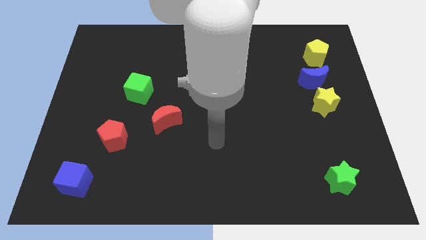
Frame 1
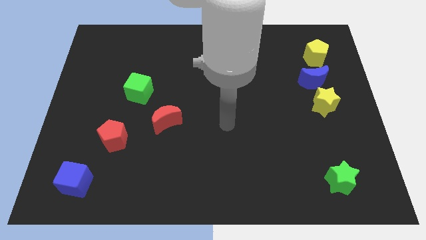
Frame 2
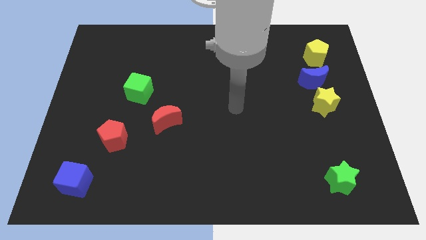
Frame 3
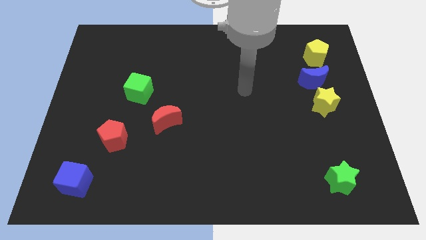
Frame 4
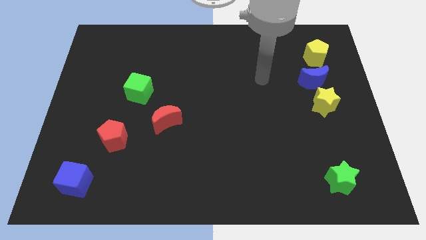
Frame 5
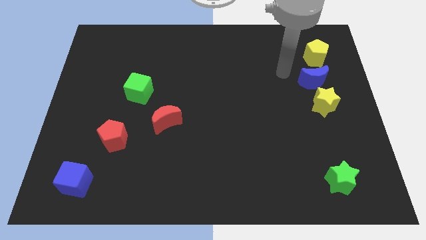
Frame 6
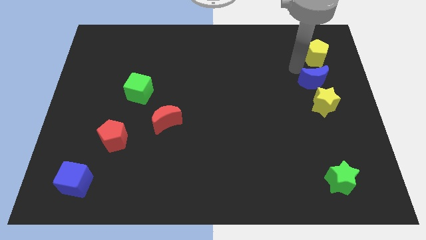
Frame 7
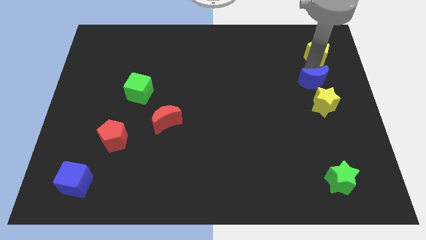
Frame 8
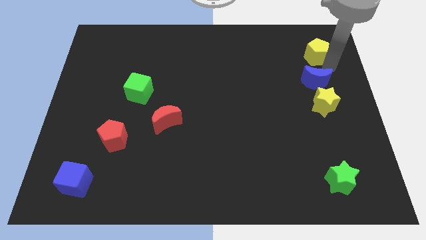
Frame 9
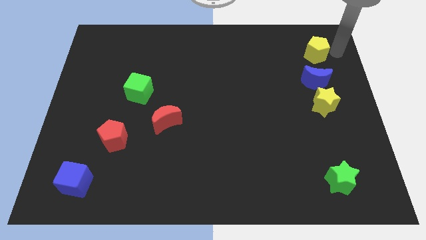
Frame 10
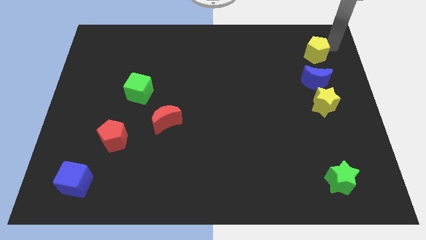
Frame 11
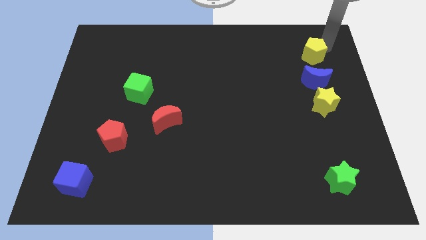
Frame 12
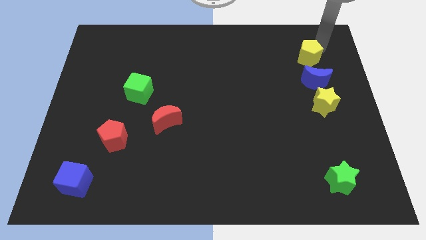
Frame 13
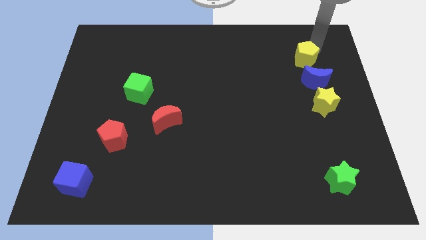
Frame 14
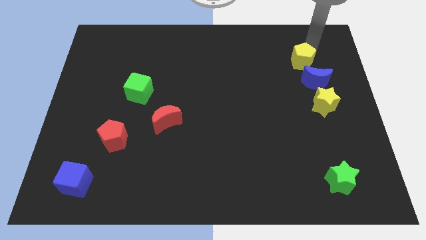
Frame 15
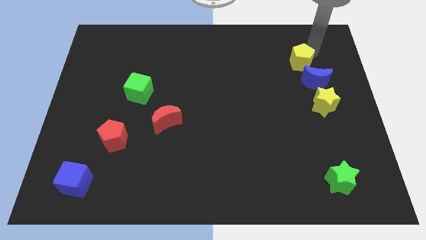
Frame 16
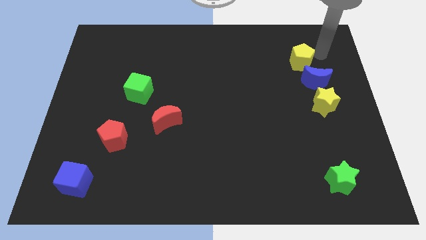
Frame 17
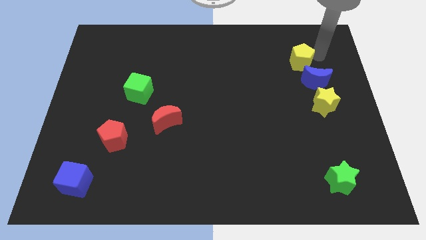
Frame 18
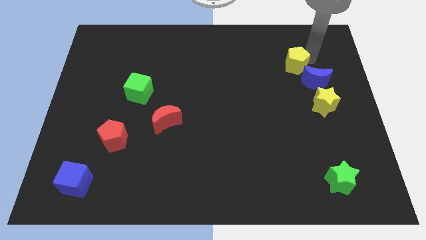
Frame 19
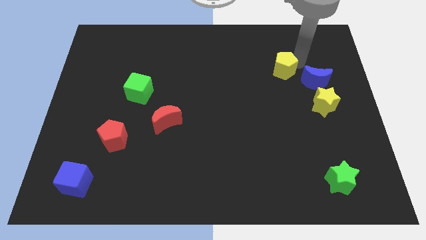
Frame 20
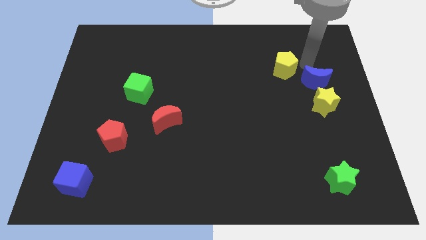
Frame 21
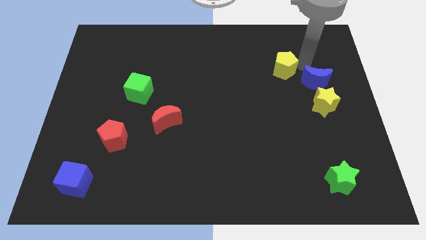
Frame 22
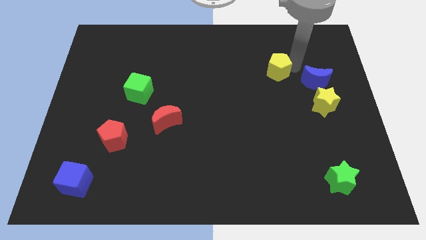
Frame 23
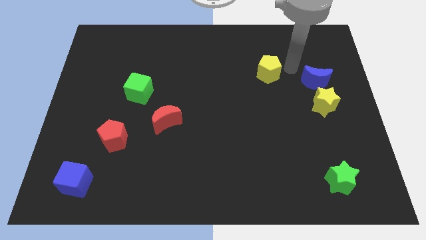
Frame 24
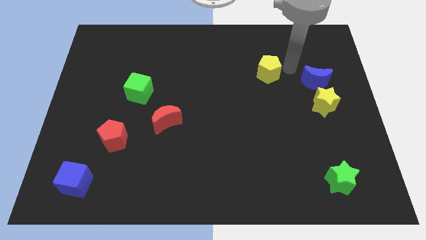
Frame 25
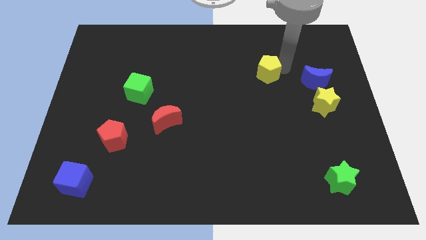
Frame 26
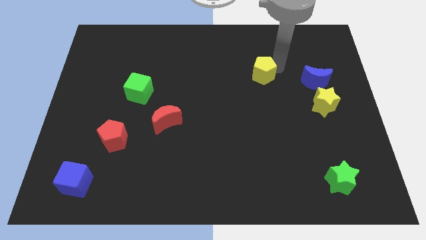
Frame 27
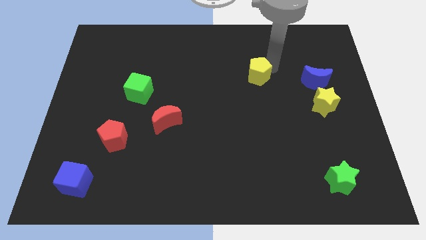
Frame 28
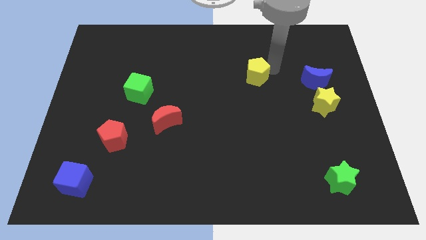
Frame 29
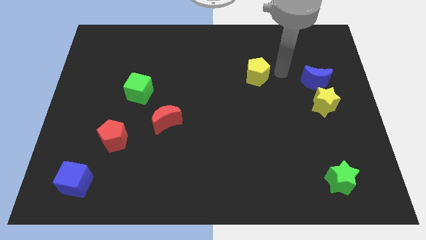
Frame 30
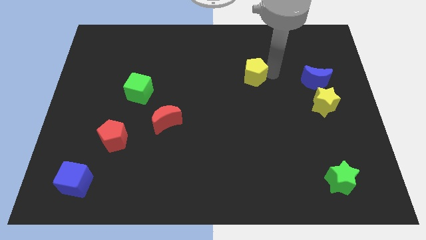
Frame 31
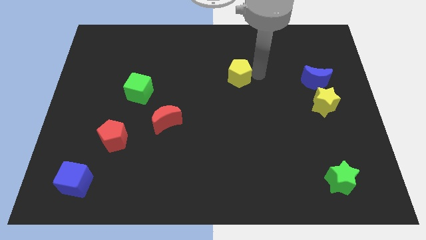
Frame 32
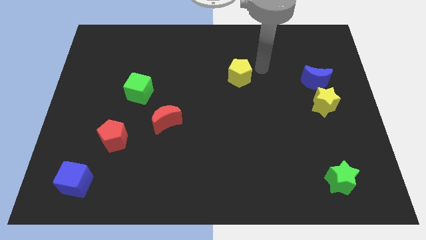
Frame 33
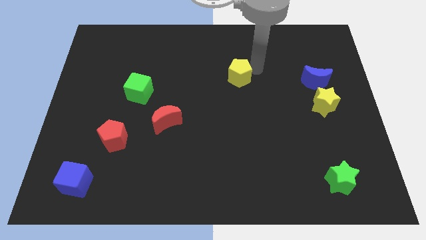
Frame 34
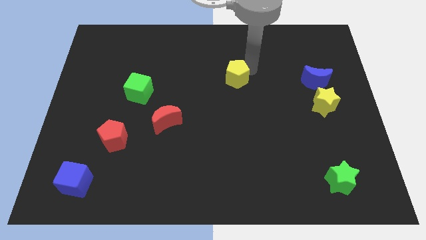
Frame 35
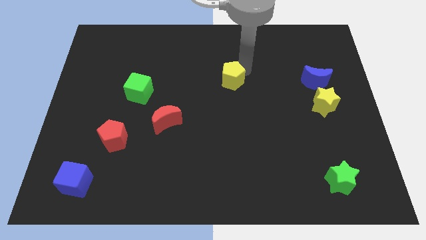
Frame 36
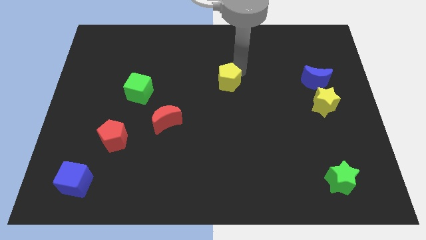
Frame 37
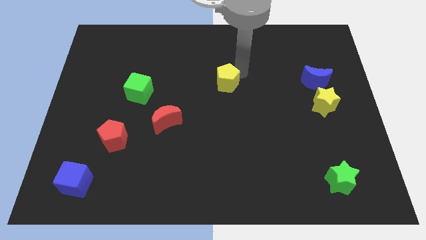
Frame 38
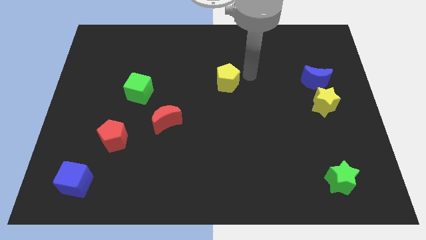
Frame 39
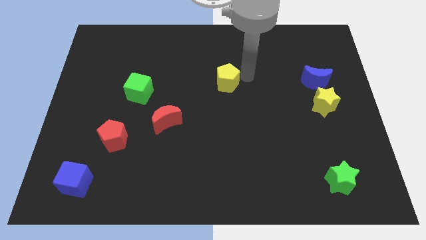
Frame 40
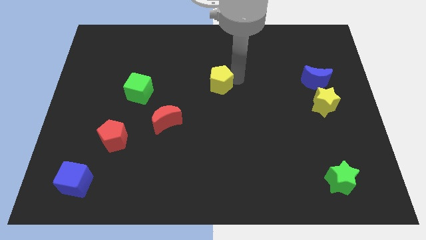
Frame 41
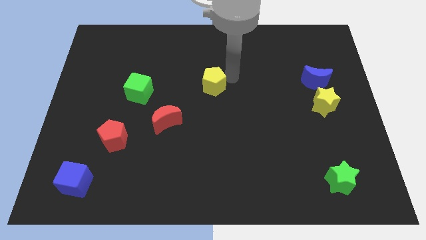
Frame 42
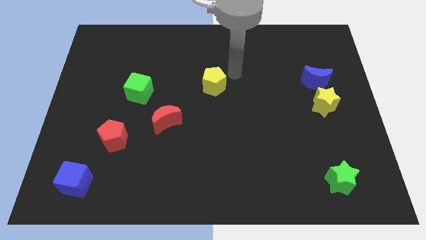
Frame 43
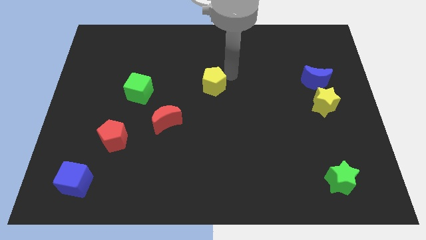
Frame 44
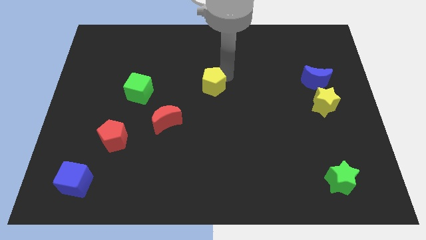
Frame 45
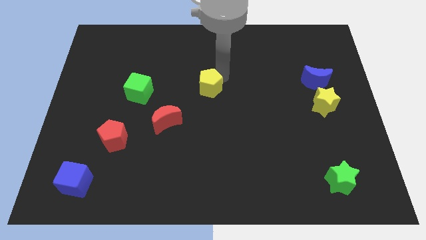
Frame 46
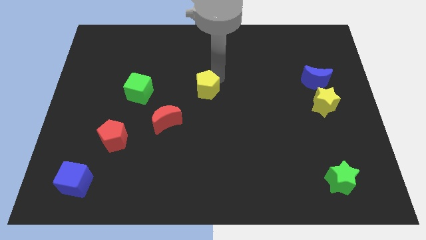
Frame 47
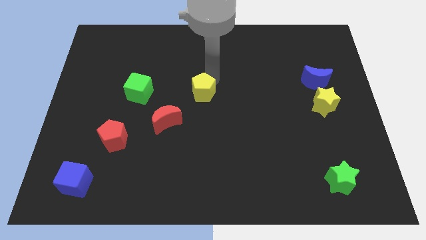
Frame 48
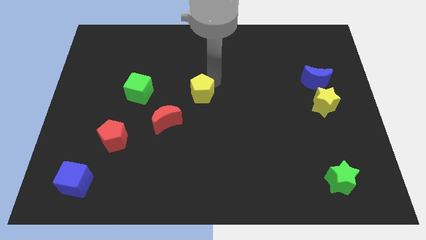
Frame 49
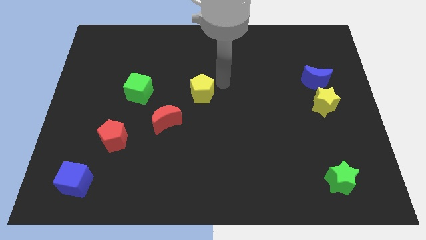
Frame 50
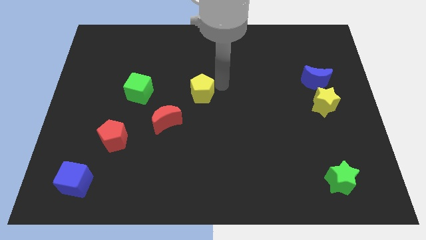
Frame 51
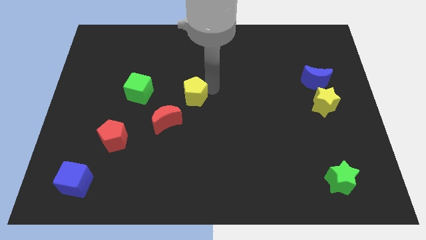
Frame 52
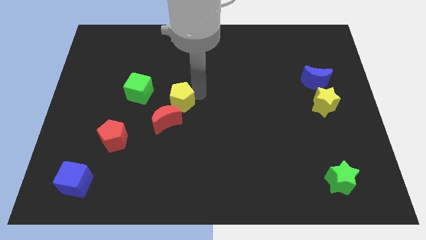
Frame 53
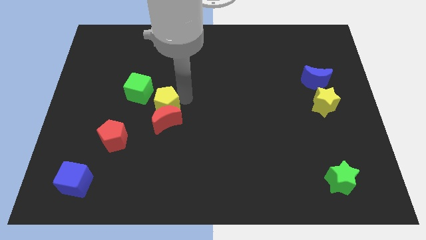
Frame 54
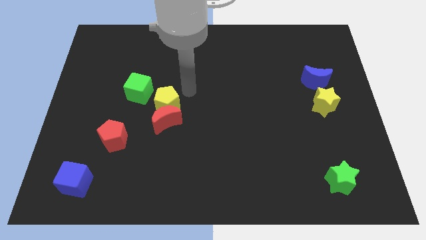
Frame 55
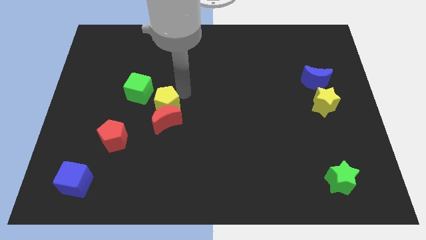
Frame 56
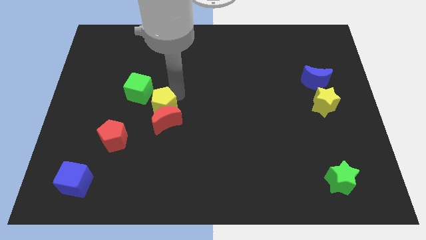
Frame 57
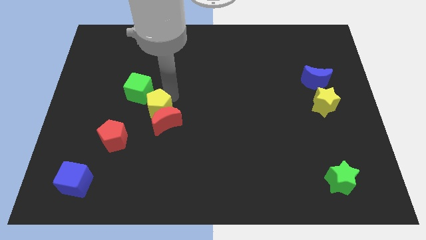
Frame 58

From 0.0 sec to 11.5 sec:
push the yellow pentagon diagonally up and to the right of the red pentagon

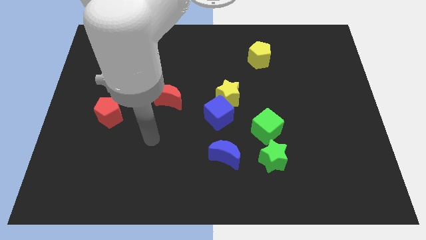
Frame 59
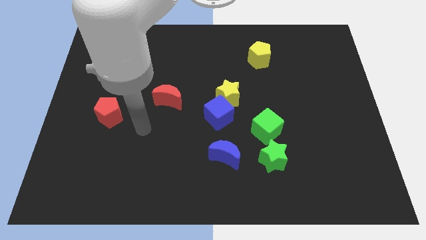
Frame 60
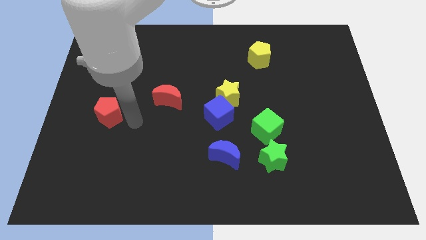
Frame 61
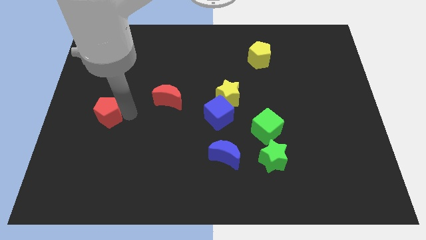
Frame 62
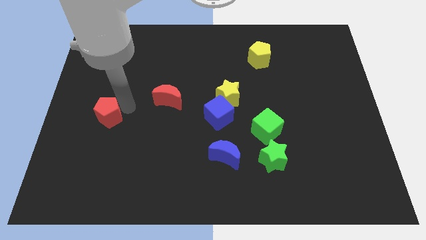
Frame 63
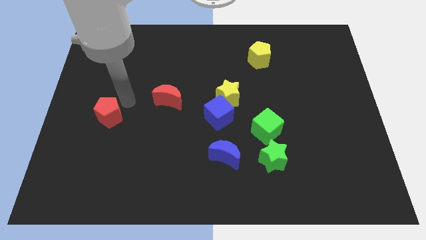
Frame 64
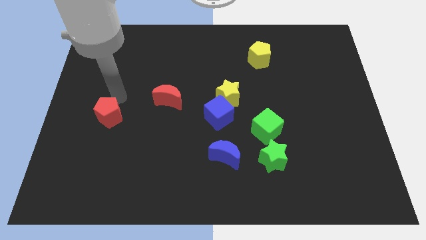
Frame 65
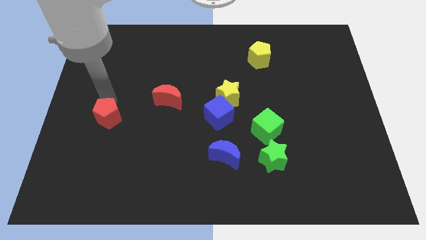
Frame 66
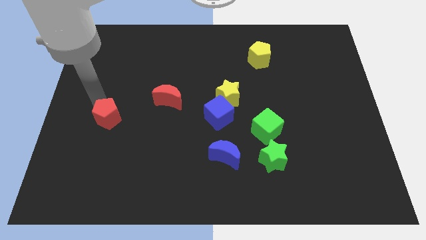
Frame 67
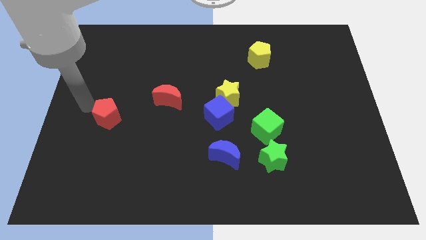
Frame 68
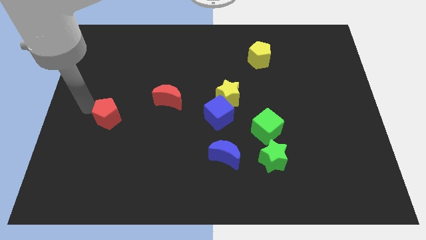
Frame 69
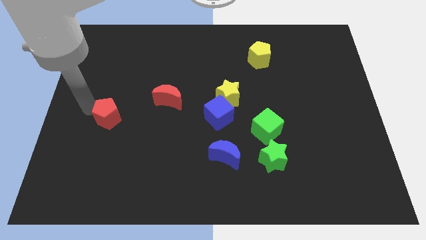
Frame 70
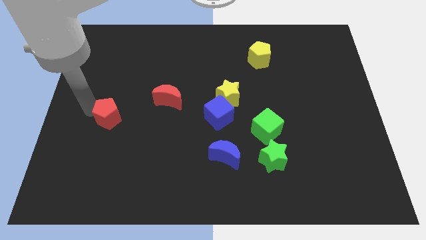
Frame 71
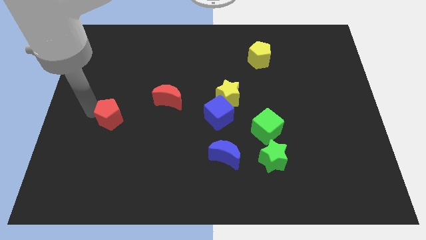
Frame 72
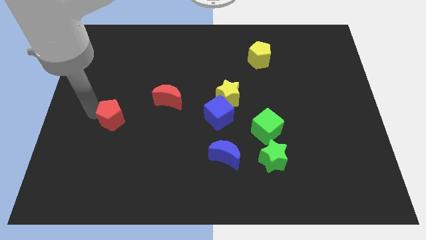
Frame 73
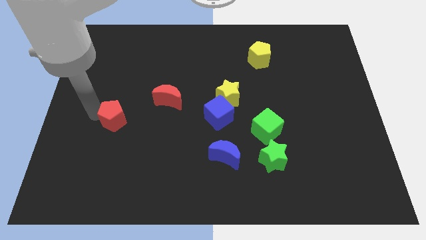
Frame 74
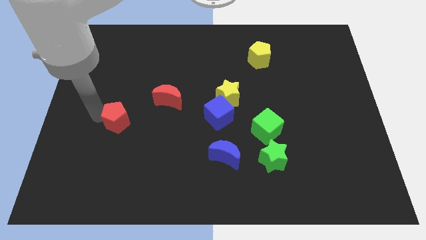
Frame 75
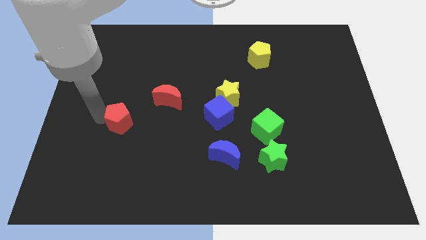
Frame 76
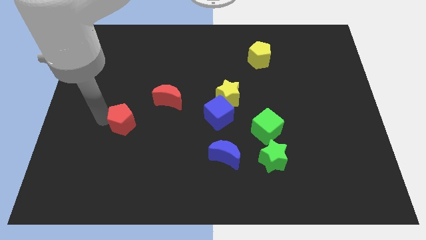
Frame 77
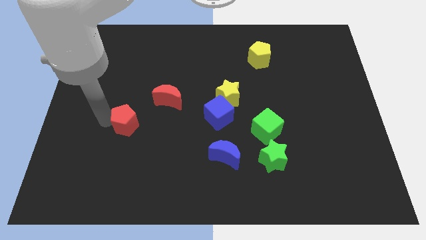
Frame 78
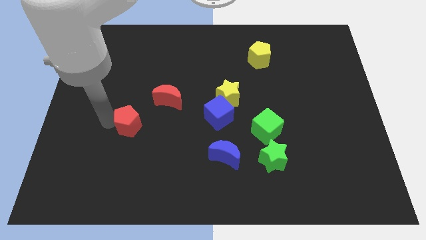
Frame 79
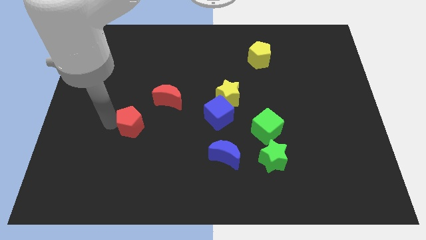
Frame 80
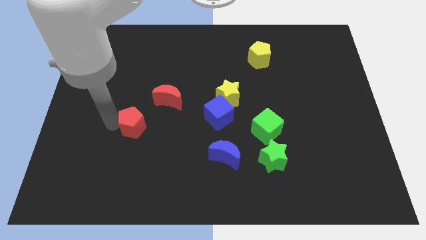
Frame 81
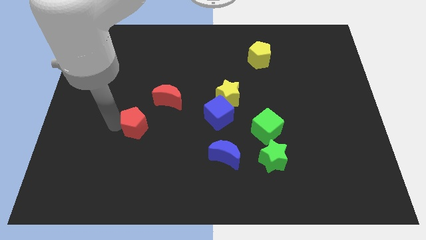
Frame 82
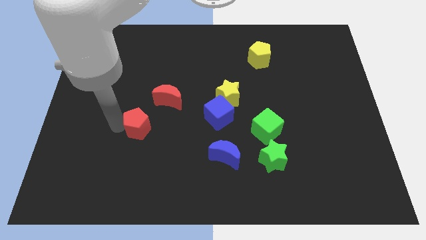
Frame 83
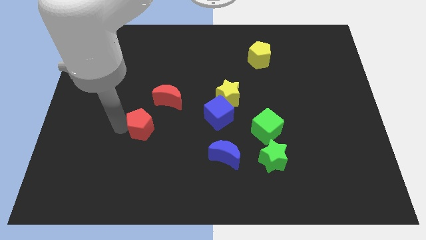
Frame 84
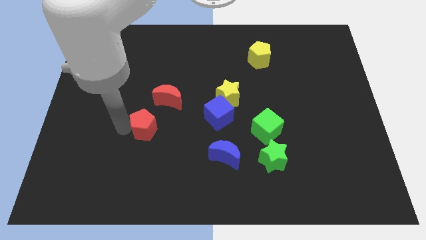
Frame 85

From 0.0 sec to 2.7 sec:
move the red pentagon to the bottom of the red moon
